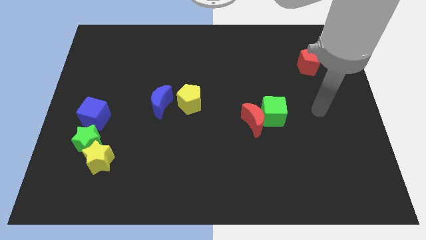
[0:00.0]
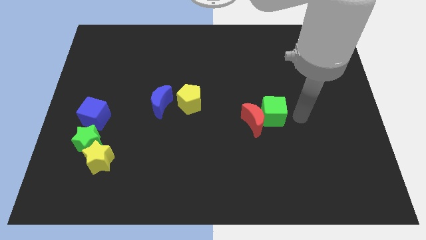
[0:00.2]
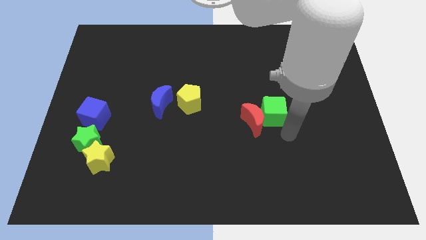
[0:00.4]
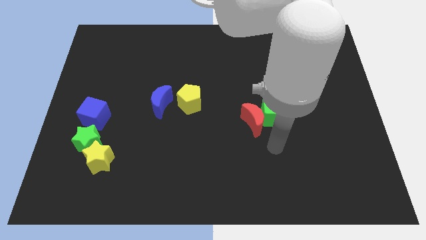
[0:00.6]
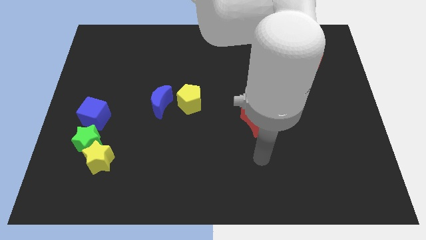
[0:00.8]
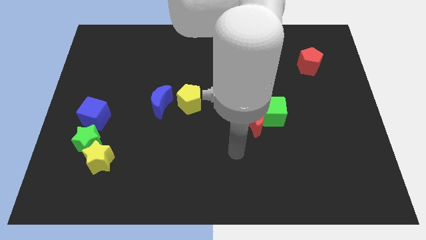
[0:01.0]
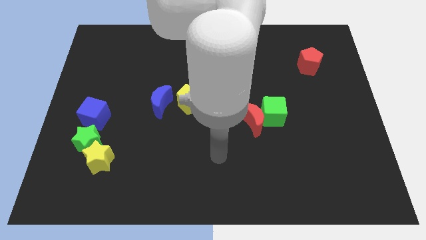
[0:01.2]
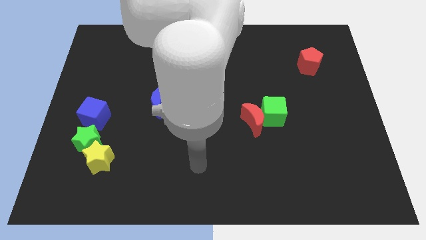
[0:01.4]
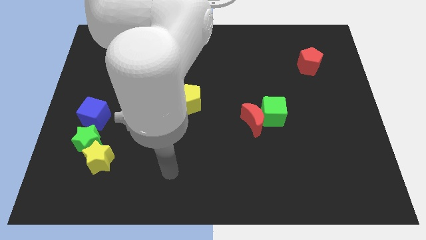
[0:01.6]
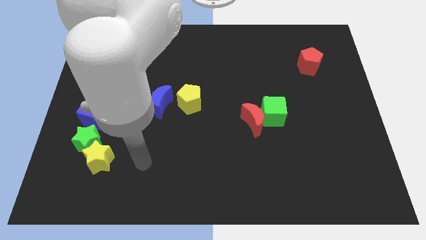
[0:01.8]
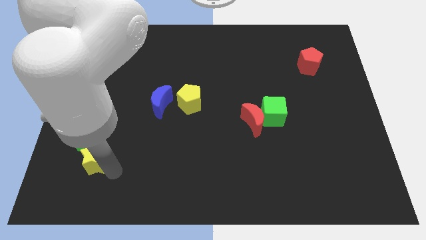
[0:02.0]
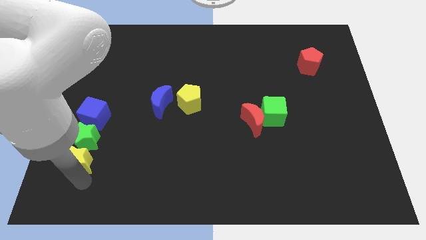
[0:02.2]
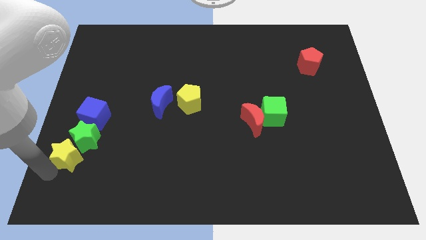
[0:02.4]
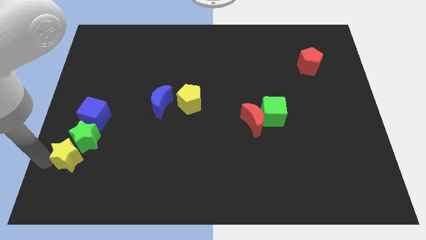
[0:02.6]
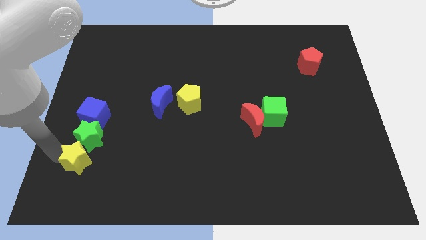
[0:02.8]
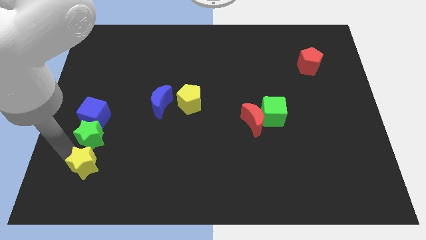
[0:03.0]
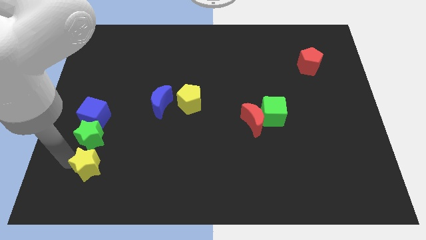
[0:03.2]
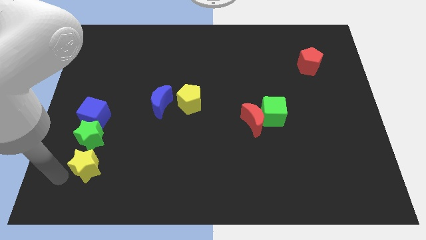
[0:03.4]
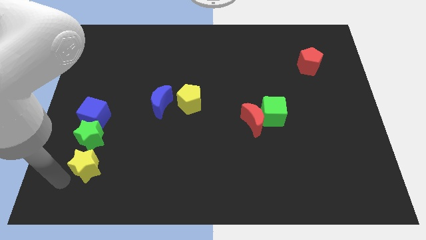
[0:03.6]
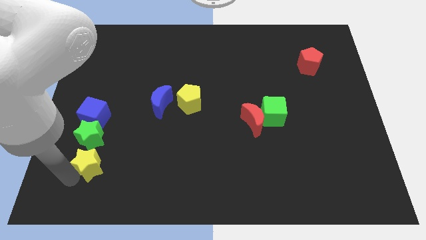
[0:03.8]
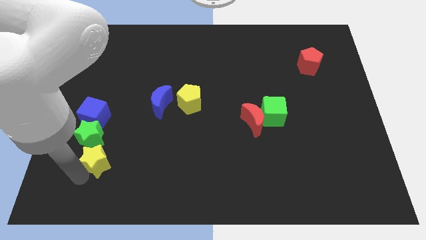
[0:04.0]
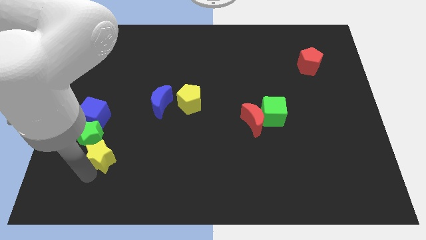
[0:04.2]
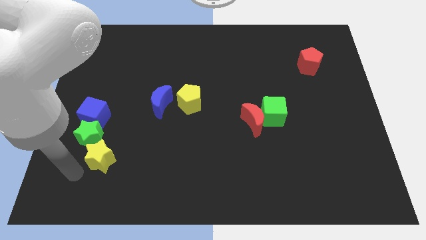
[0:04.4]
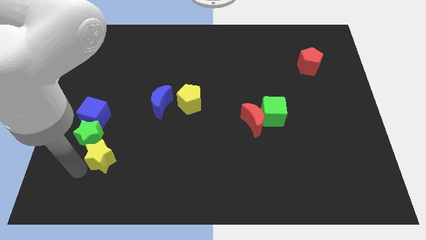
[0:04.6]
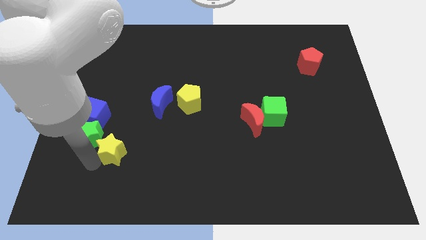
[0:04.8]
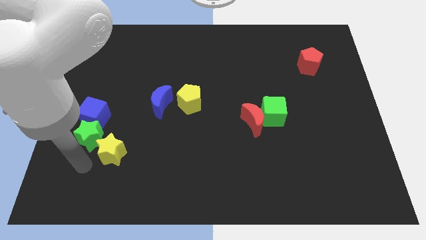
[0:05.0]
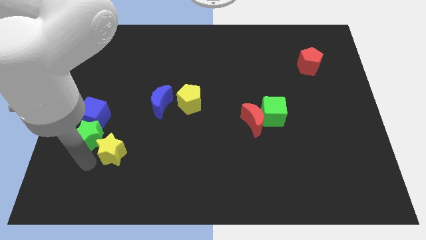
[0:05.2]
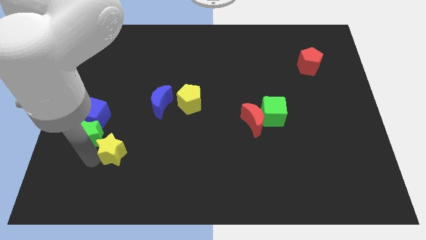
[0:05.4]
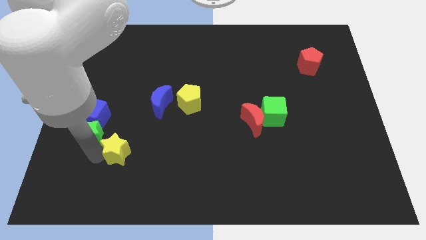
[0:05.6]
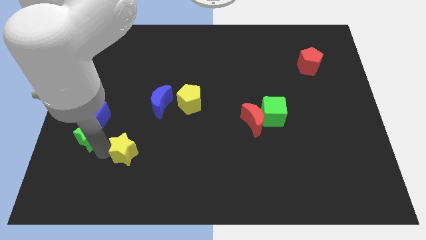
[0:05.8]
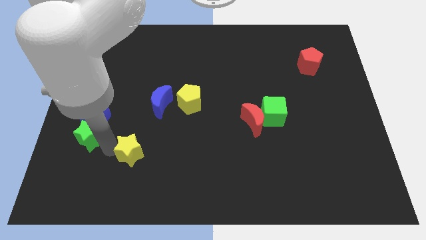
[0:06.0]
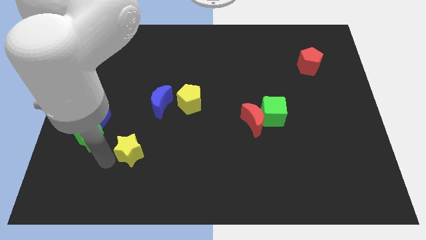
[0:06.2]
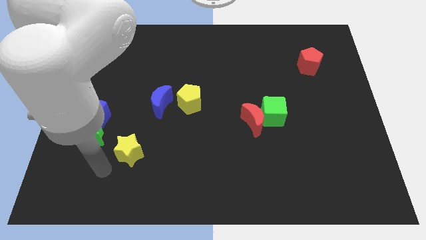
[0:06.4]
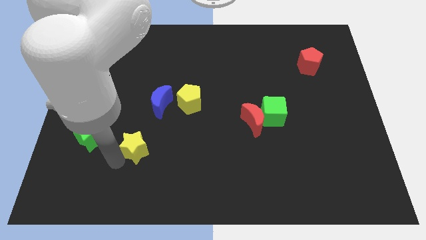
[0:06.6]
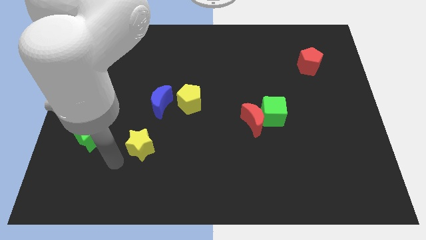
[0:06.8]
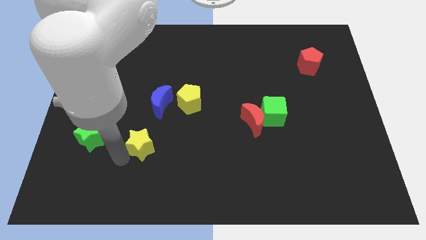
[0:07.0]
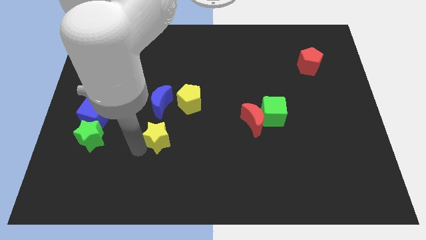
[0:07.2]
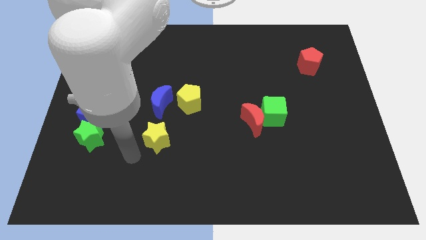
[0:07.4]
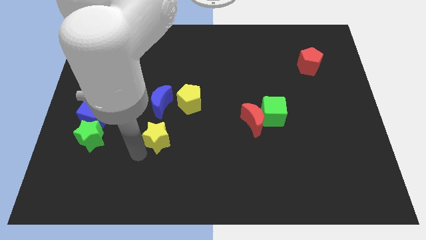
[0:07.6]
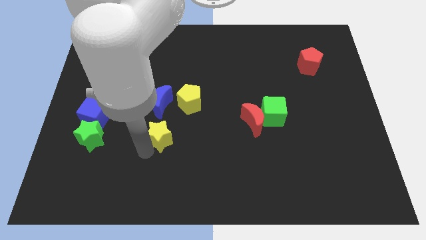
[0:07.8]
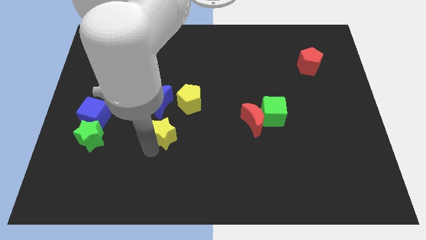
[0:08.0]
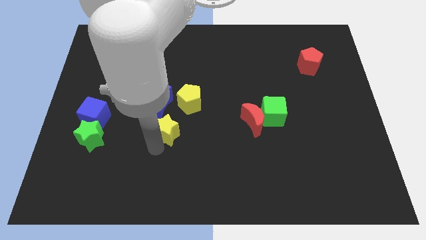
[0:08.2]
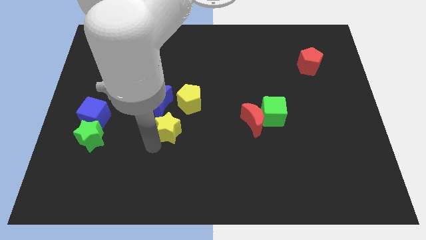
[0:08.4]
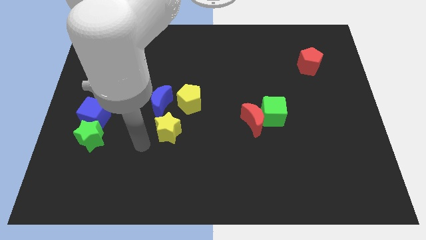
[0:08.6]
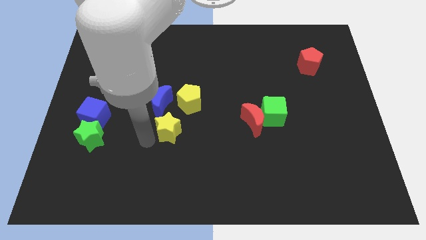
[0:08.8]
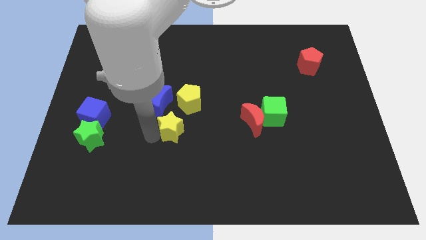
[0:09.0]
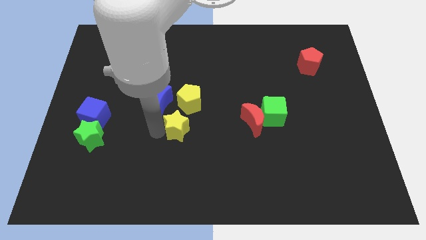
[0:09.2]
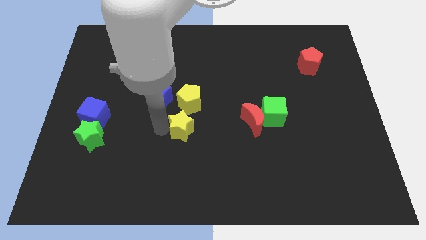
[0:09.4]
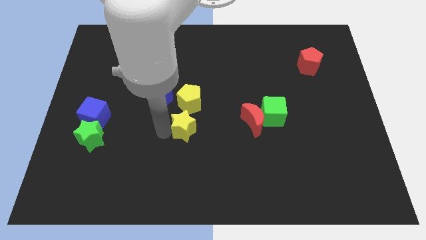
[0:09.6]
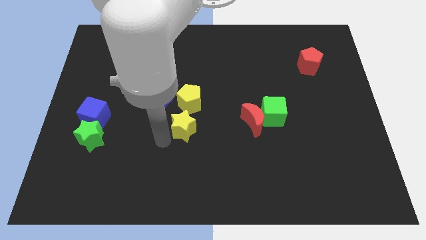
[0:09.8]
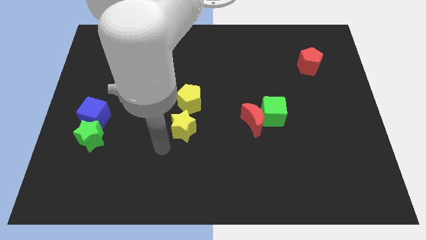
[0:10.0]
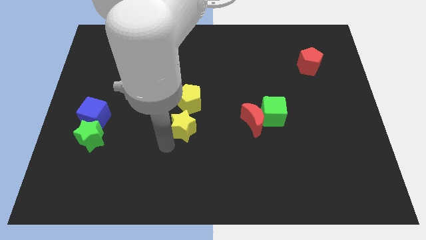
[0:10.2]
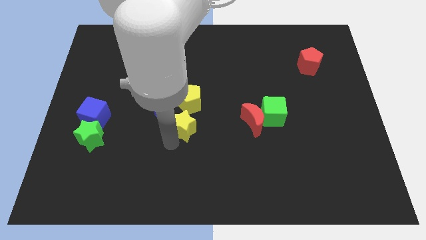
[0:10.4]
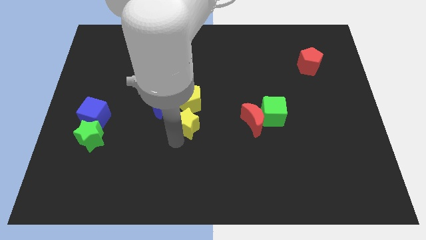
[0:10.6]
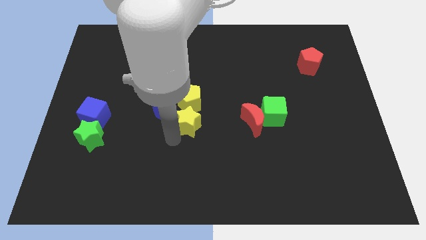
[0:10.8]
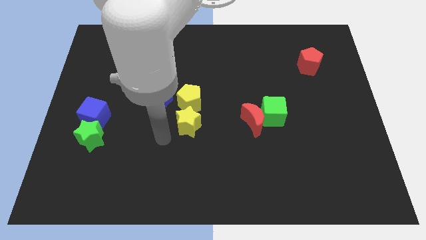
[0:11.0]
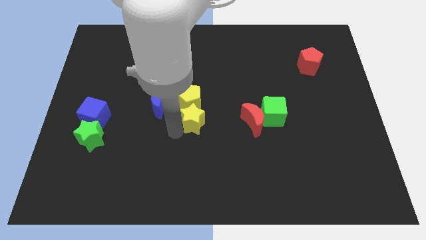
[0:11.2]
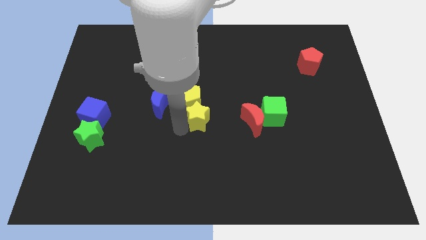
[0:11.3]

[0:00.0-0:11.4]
put the yellow star to the right of the blue moon

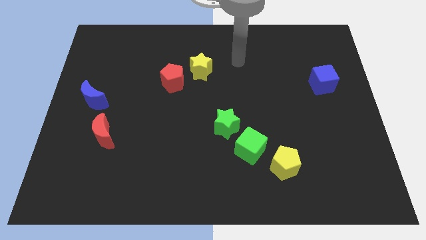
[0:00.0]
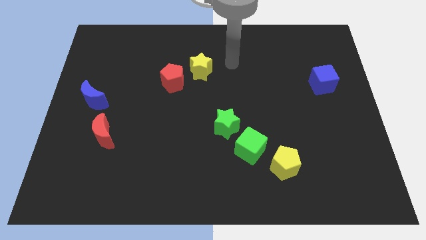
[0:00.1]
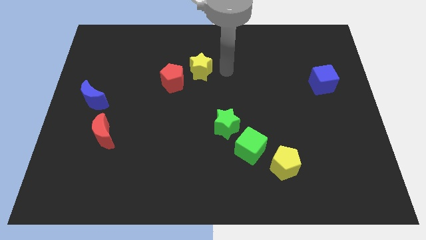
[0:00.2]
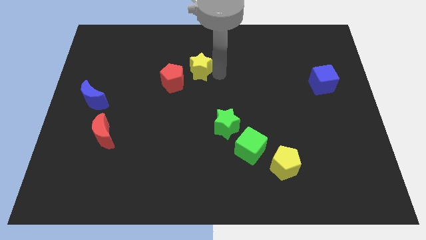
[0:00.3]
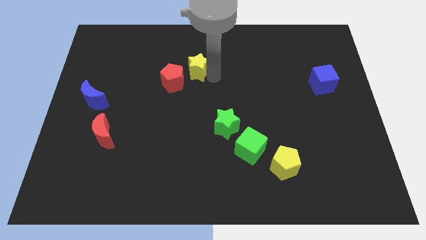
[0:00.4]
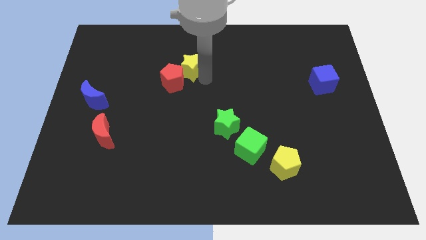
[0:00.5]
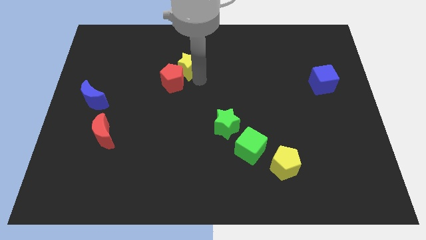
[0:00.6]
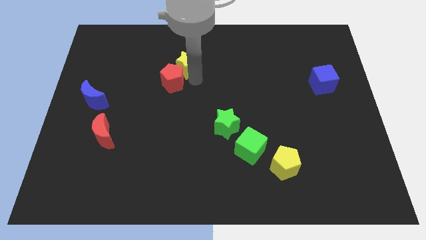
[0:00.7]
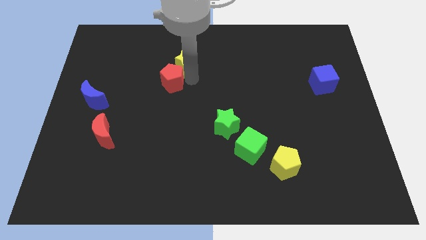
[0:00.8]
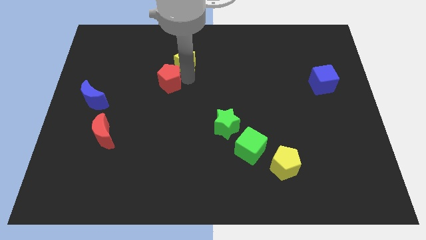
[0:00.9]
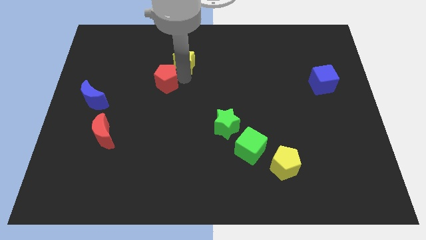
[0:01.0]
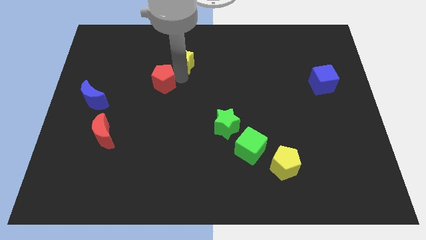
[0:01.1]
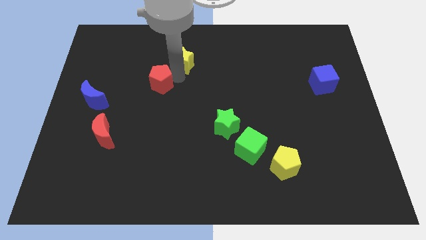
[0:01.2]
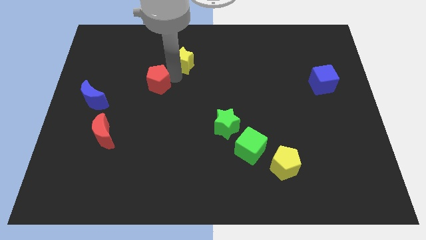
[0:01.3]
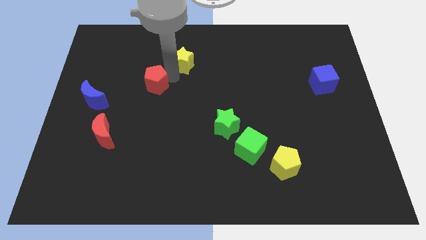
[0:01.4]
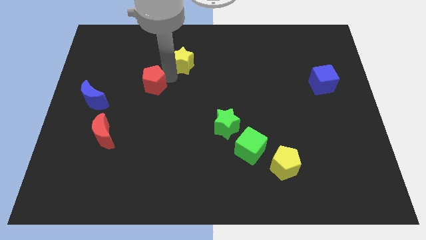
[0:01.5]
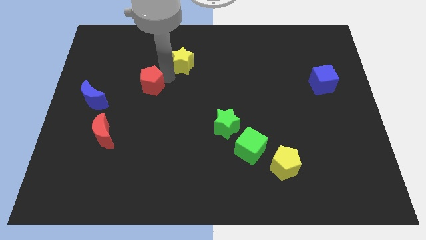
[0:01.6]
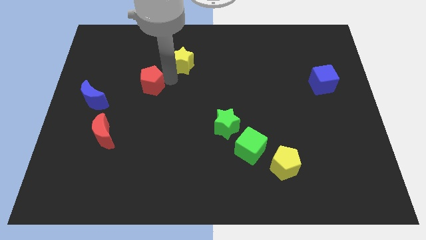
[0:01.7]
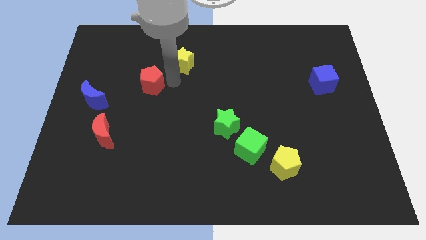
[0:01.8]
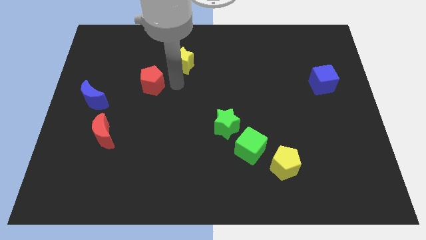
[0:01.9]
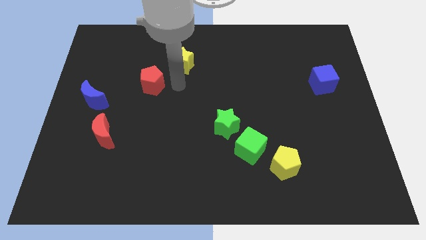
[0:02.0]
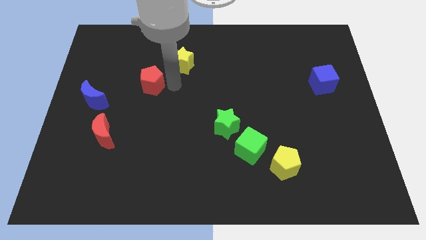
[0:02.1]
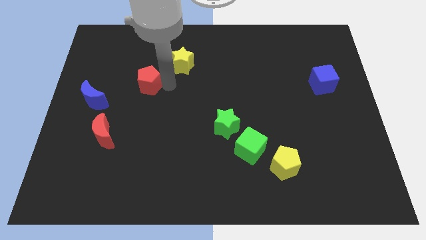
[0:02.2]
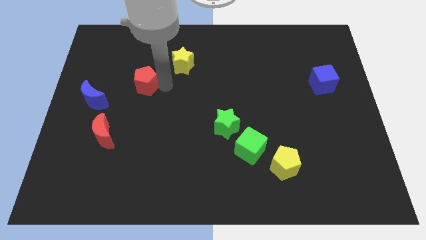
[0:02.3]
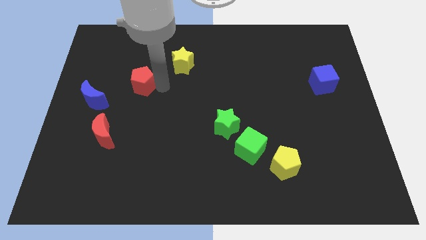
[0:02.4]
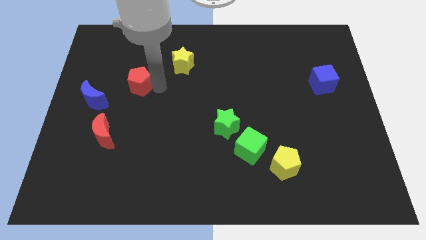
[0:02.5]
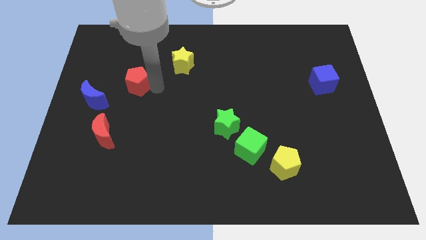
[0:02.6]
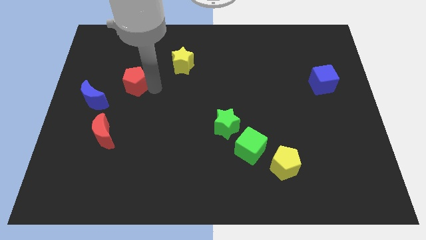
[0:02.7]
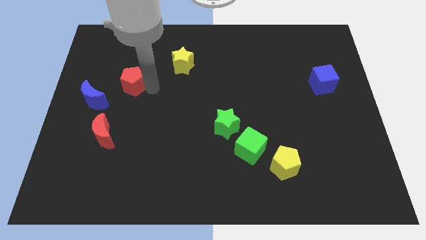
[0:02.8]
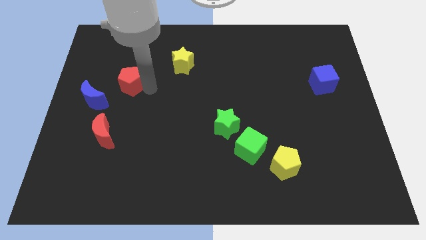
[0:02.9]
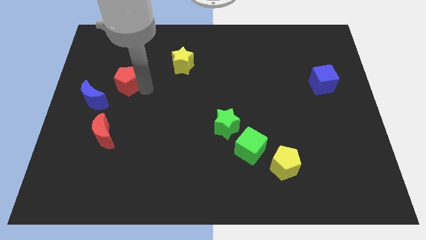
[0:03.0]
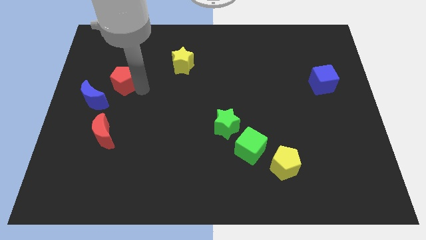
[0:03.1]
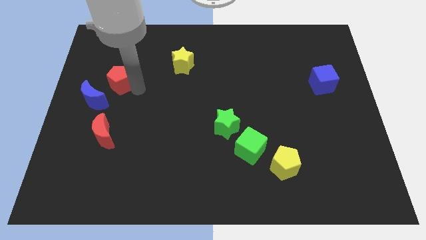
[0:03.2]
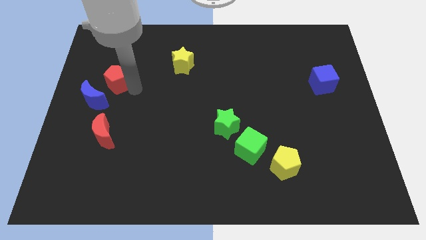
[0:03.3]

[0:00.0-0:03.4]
put the red pentagon to the top side of the blue moon
